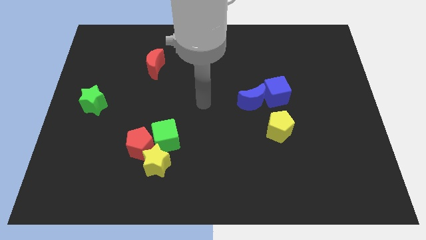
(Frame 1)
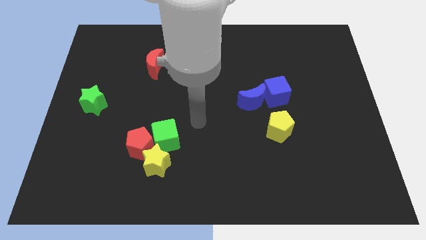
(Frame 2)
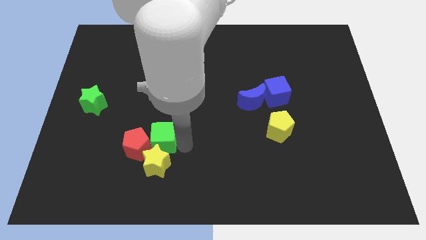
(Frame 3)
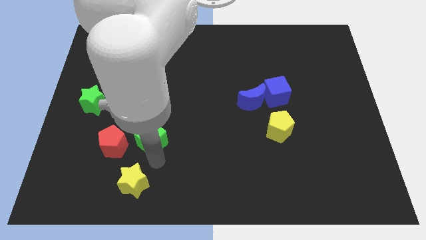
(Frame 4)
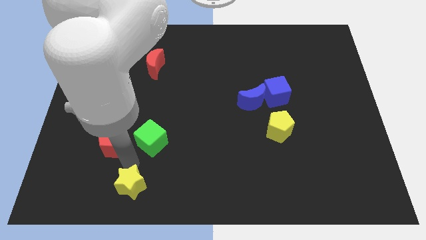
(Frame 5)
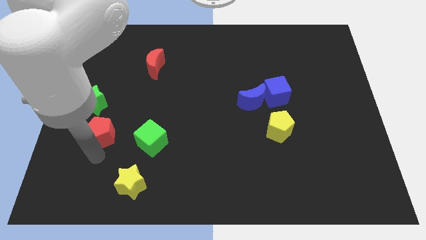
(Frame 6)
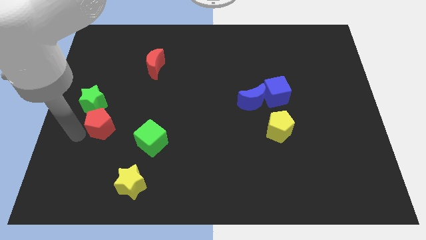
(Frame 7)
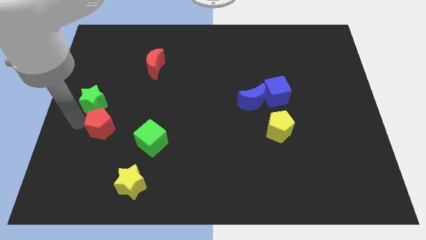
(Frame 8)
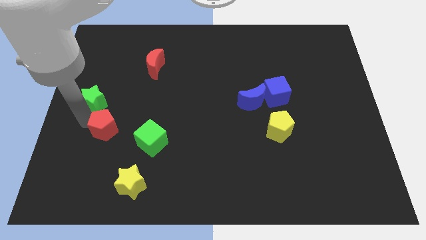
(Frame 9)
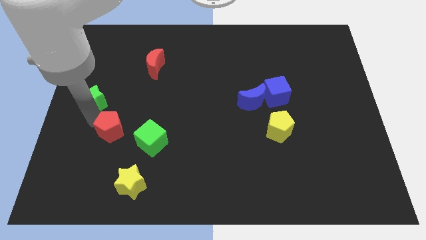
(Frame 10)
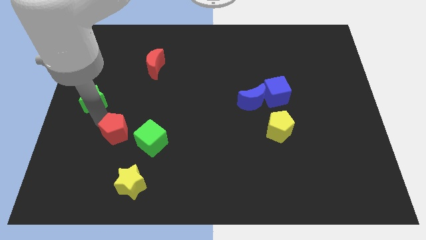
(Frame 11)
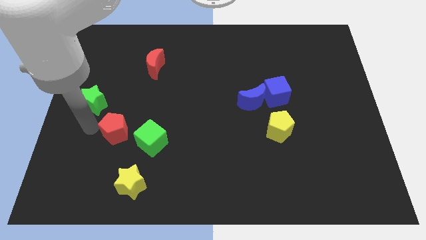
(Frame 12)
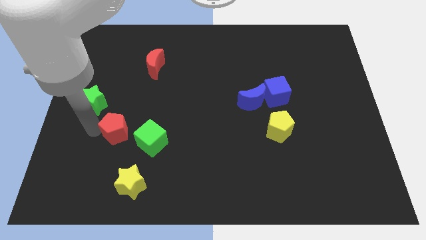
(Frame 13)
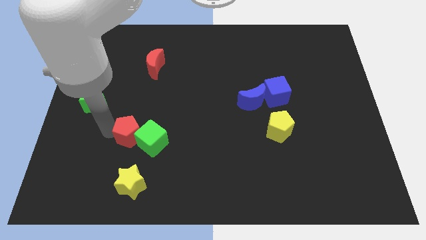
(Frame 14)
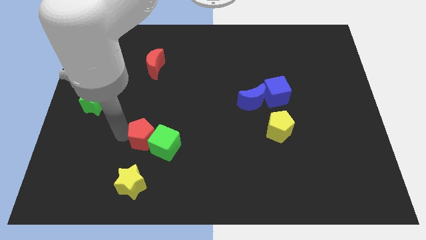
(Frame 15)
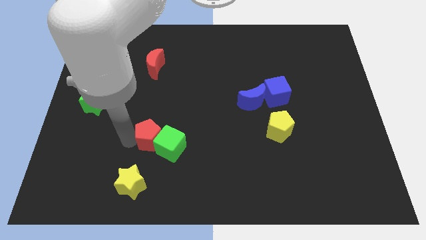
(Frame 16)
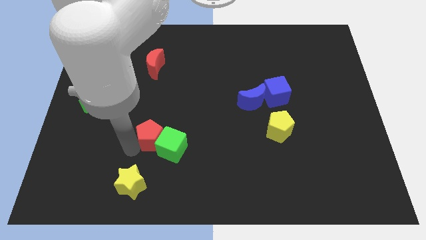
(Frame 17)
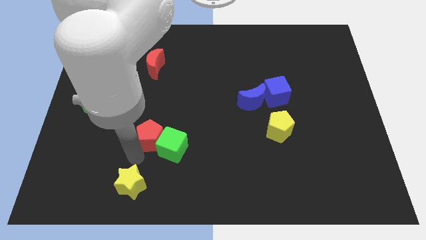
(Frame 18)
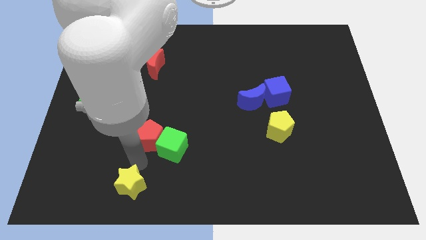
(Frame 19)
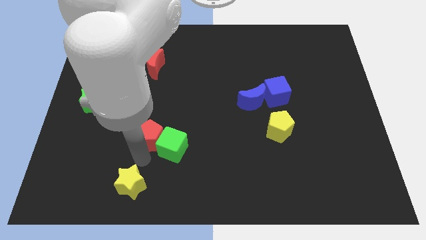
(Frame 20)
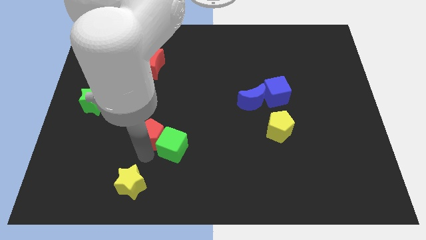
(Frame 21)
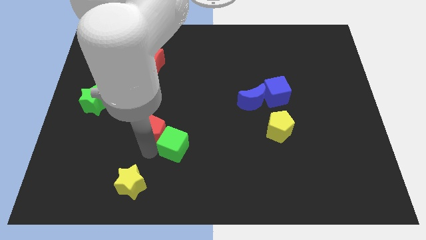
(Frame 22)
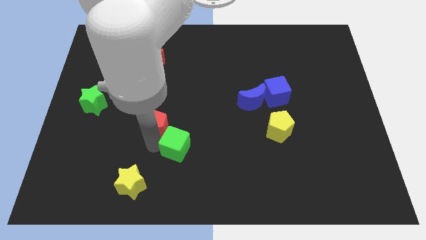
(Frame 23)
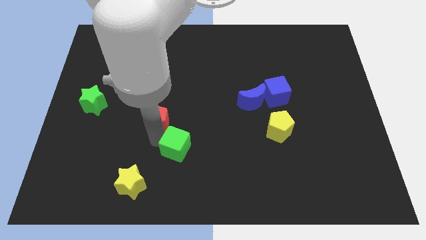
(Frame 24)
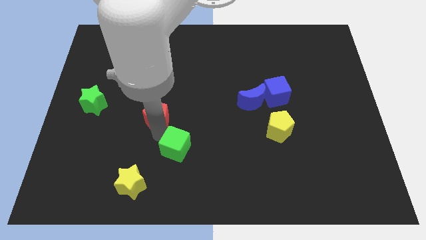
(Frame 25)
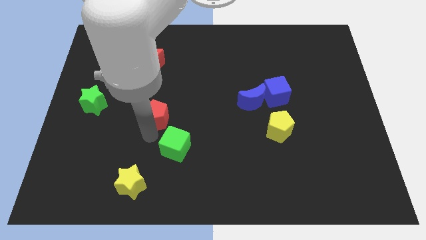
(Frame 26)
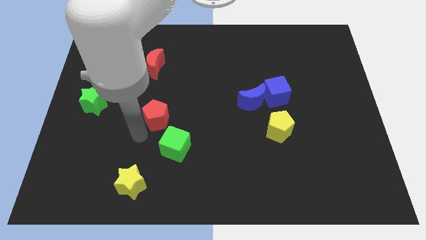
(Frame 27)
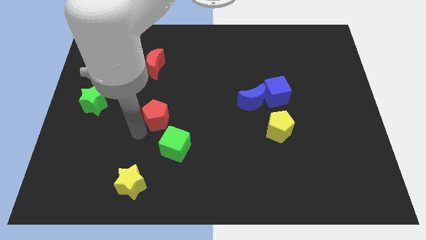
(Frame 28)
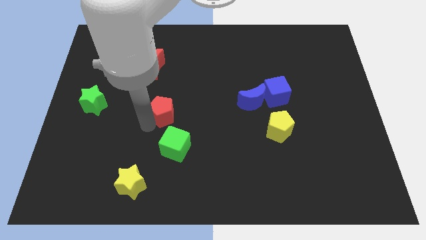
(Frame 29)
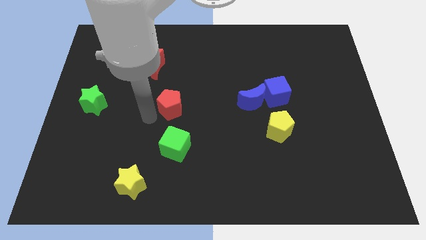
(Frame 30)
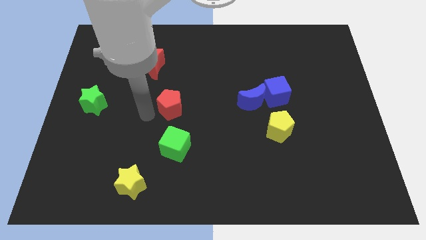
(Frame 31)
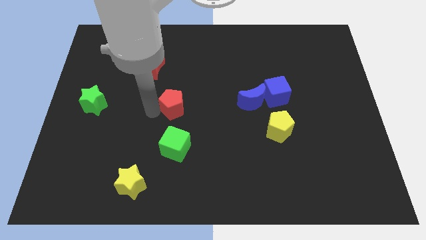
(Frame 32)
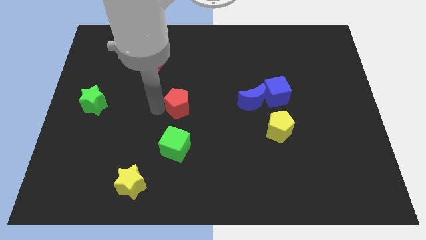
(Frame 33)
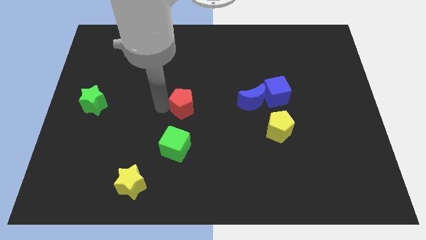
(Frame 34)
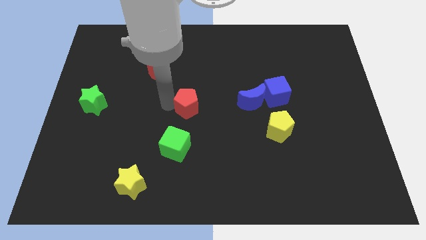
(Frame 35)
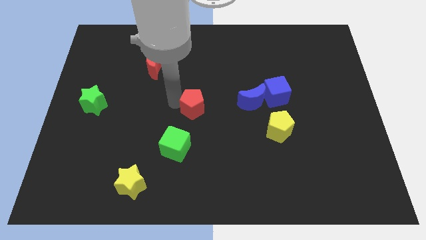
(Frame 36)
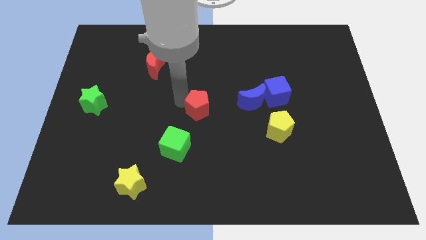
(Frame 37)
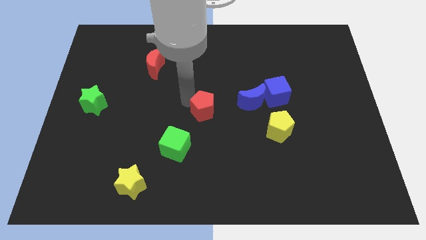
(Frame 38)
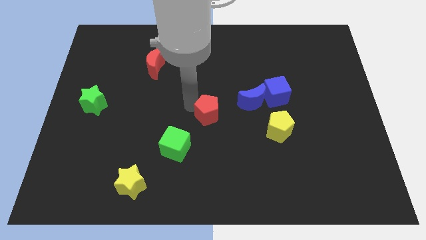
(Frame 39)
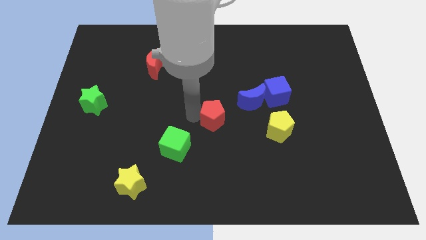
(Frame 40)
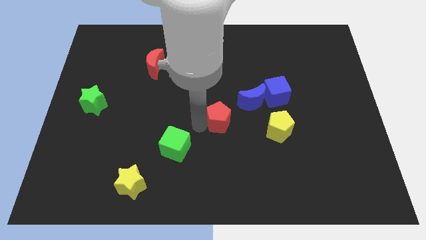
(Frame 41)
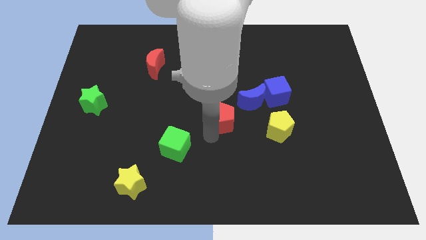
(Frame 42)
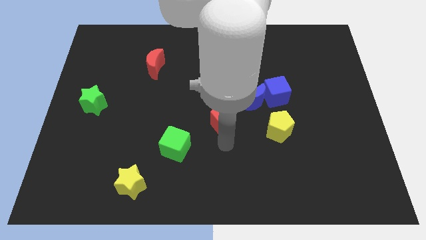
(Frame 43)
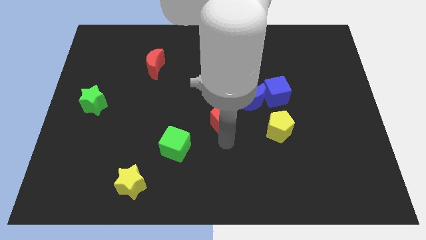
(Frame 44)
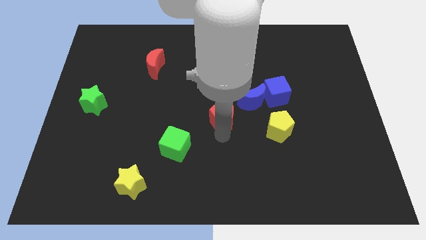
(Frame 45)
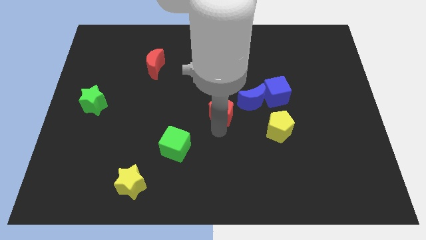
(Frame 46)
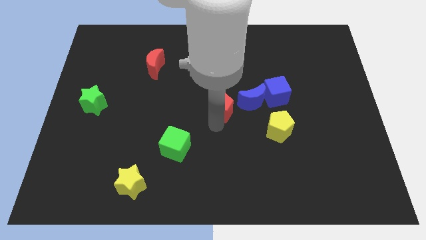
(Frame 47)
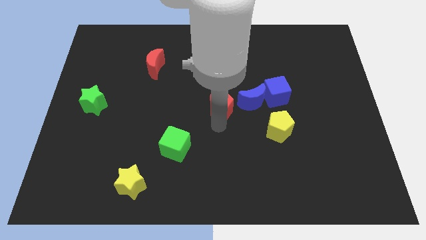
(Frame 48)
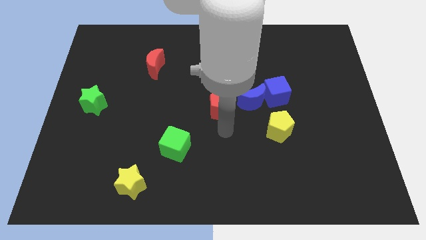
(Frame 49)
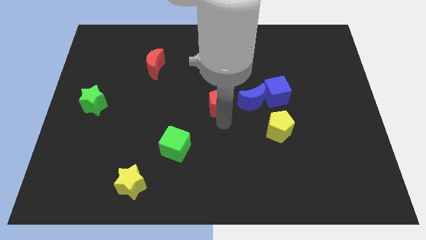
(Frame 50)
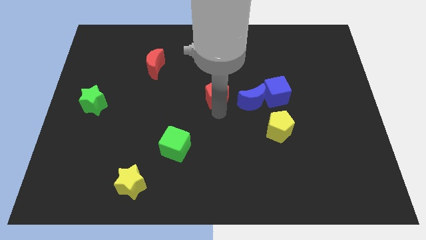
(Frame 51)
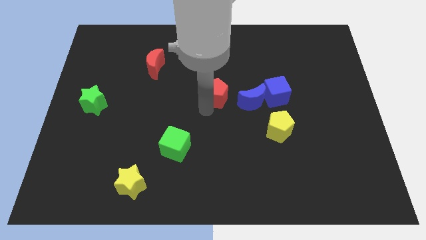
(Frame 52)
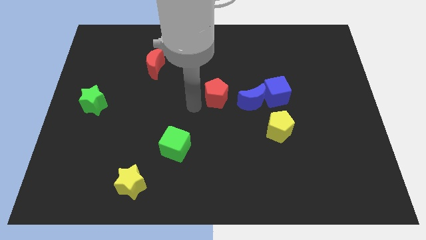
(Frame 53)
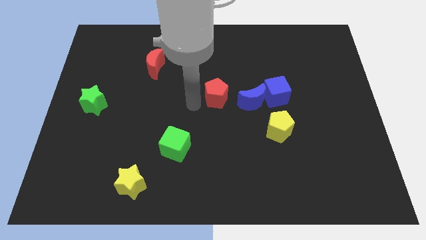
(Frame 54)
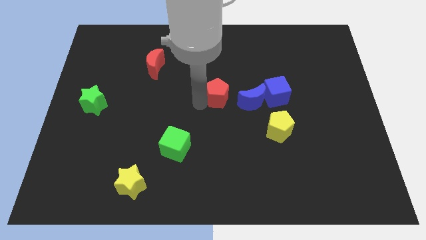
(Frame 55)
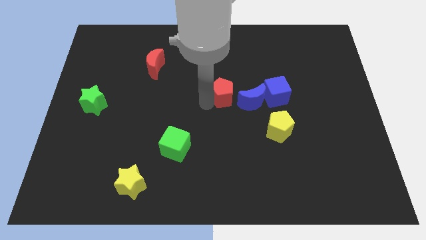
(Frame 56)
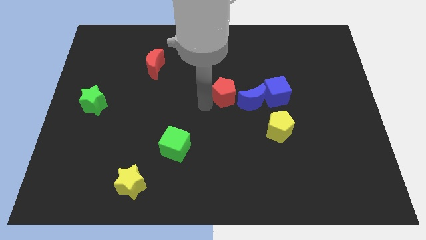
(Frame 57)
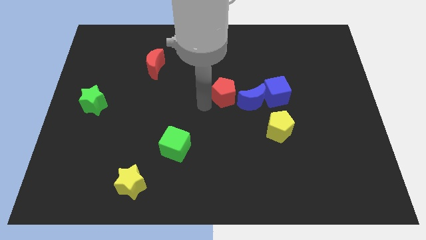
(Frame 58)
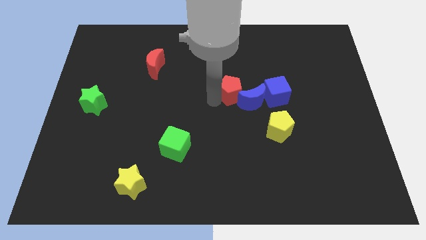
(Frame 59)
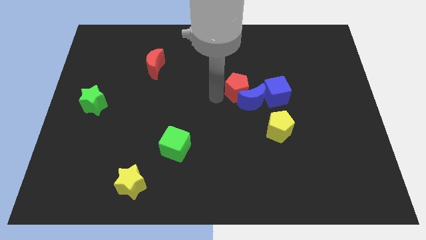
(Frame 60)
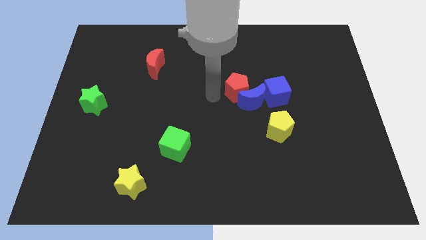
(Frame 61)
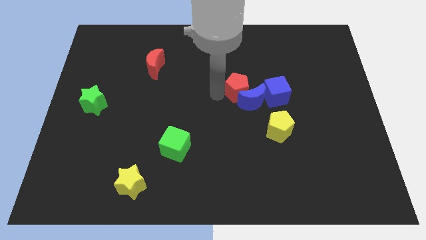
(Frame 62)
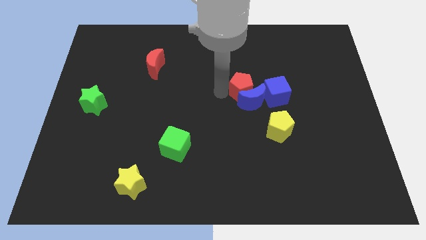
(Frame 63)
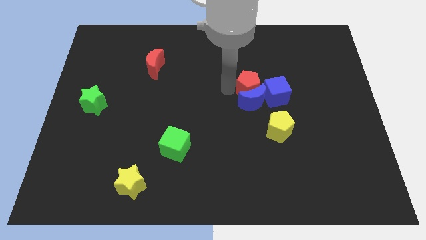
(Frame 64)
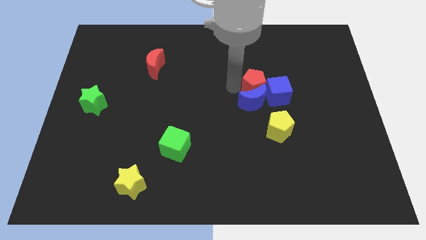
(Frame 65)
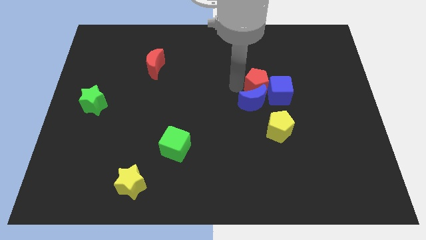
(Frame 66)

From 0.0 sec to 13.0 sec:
move the red pentagon to the top of the yellow pentagon

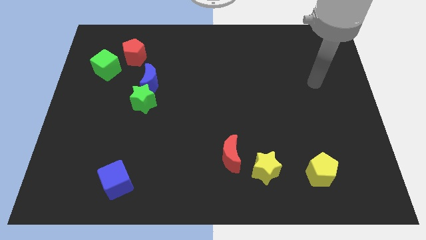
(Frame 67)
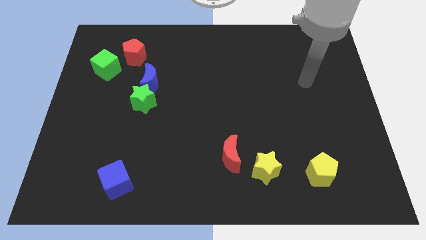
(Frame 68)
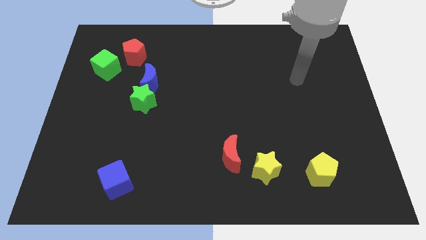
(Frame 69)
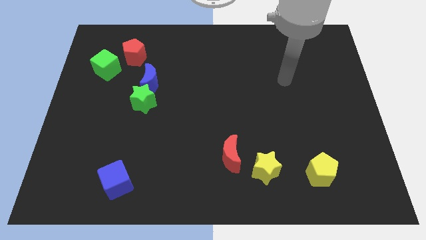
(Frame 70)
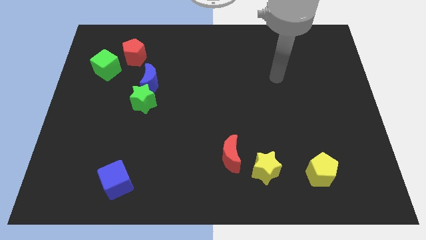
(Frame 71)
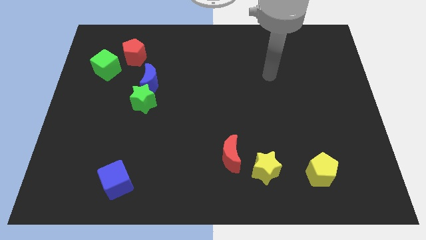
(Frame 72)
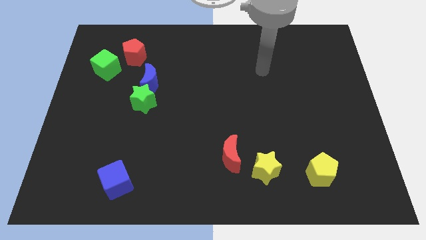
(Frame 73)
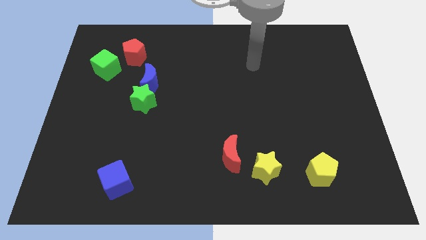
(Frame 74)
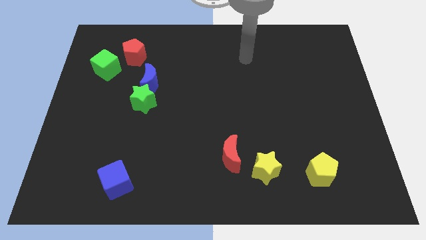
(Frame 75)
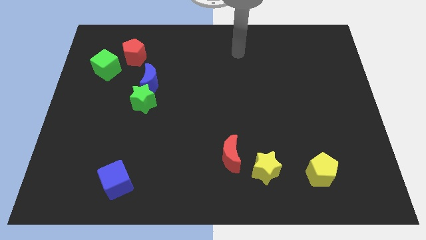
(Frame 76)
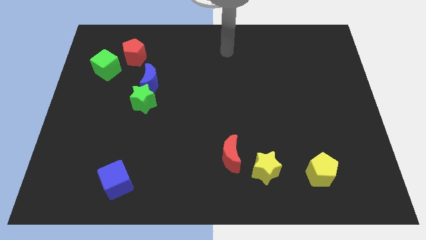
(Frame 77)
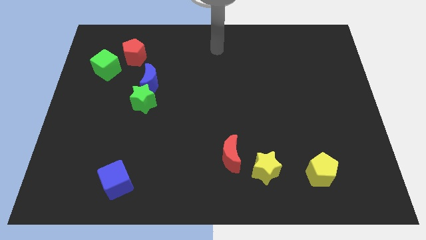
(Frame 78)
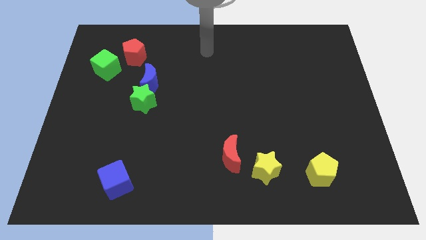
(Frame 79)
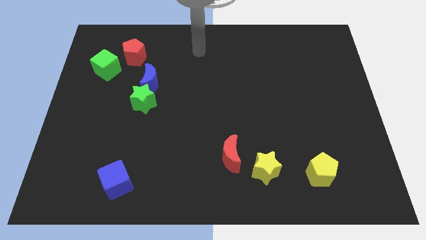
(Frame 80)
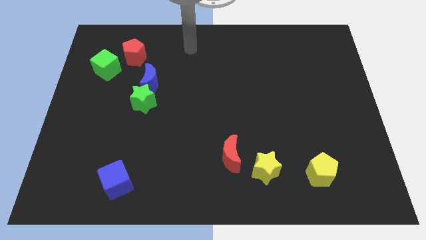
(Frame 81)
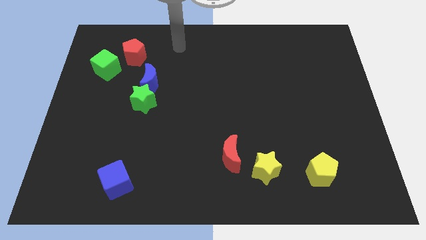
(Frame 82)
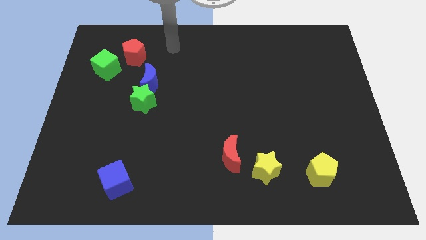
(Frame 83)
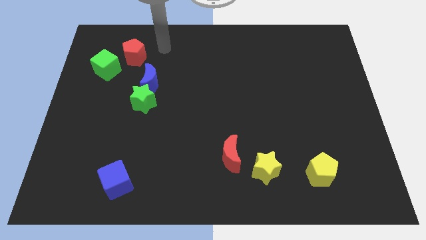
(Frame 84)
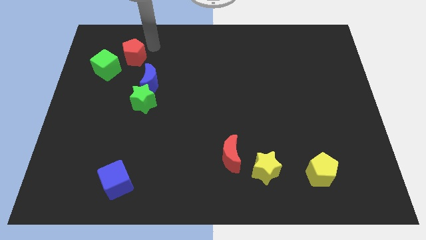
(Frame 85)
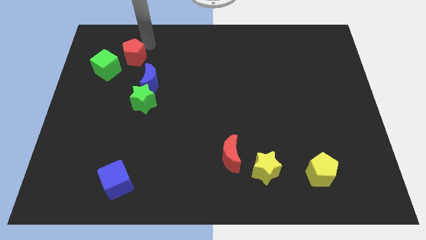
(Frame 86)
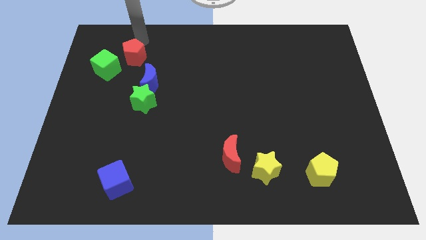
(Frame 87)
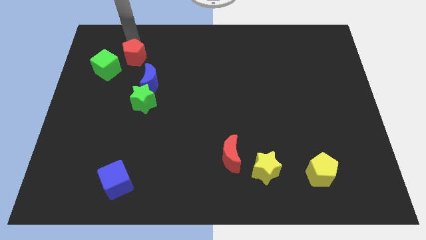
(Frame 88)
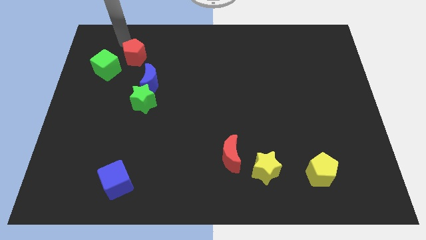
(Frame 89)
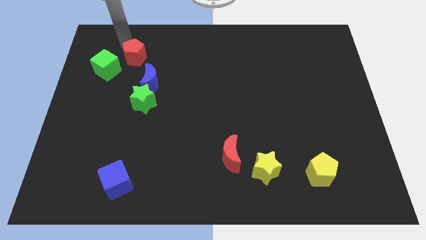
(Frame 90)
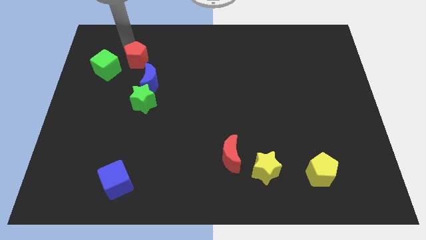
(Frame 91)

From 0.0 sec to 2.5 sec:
slide the red pentagon to the top of the green star
